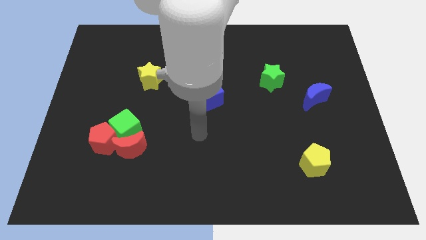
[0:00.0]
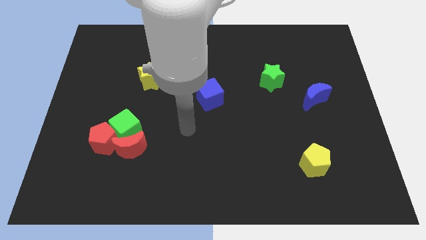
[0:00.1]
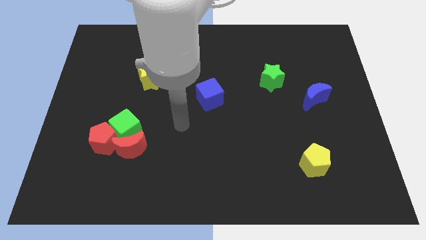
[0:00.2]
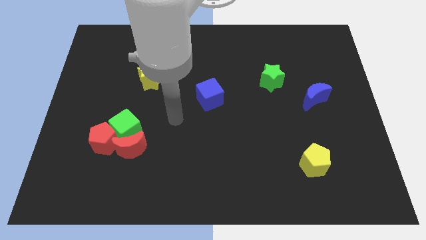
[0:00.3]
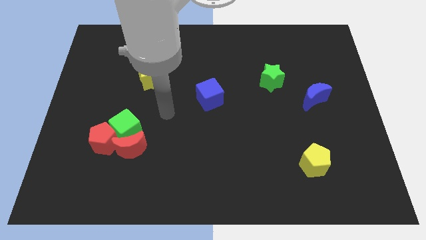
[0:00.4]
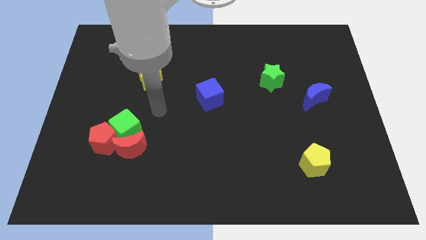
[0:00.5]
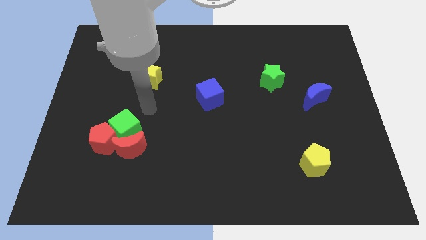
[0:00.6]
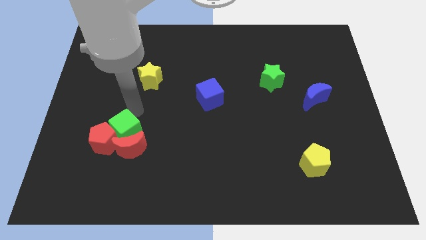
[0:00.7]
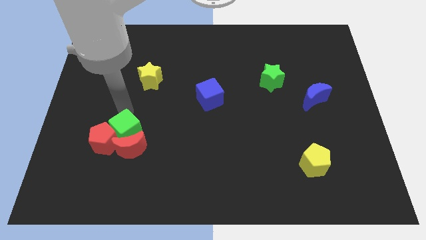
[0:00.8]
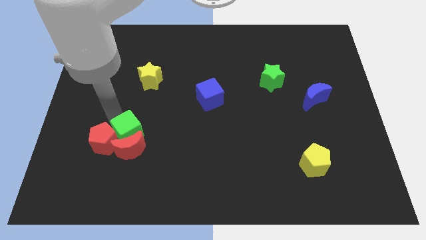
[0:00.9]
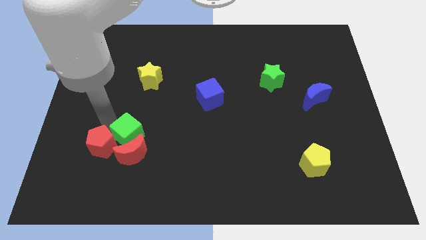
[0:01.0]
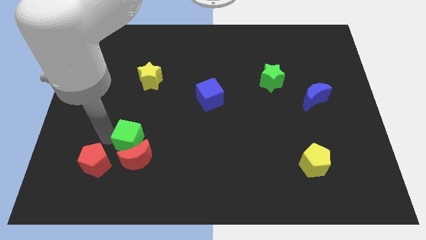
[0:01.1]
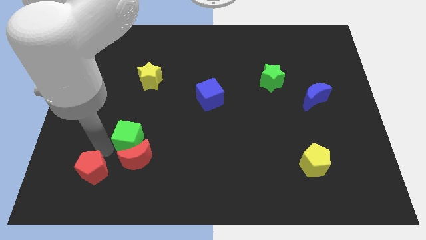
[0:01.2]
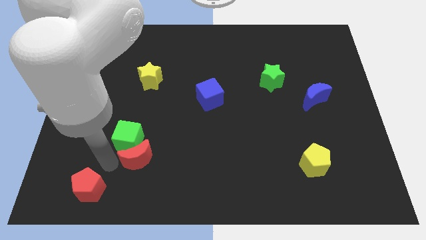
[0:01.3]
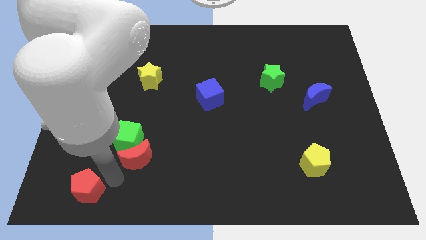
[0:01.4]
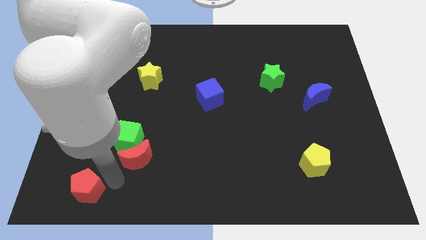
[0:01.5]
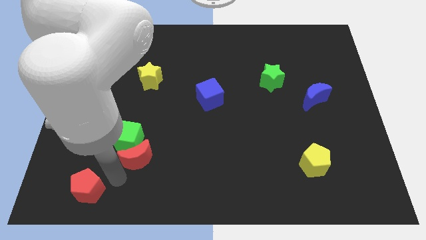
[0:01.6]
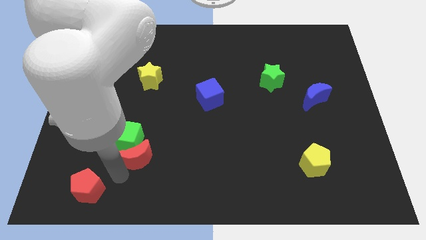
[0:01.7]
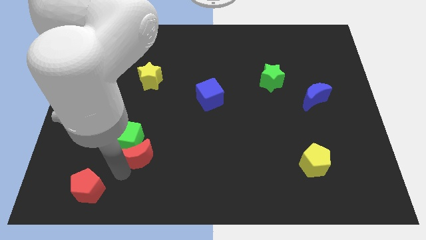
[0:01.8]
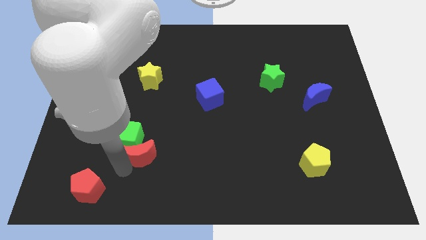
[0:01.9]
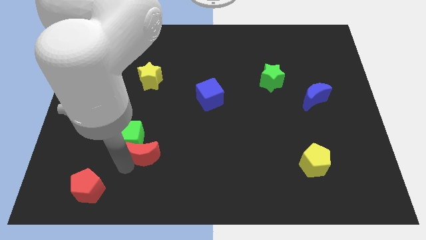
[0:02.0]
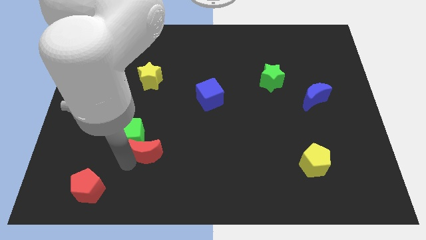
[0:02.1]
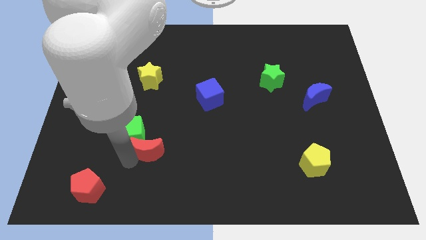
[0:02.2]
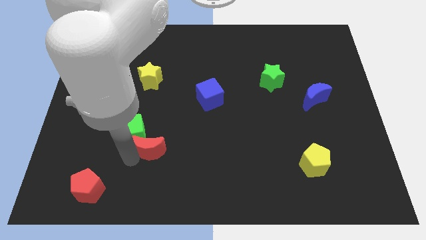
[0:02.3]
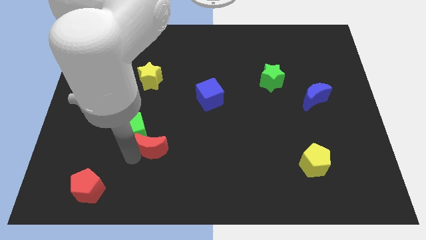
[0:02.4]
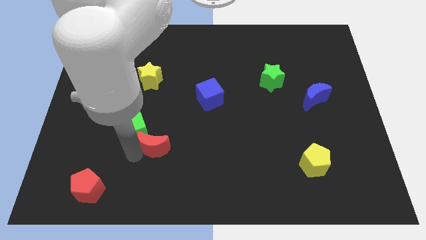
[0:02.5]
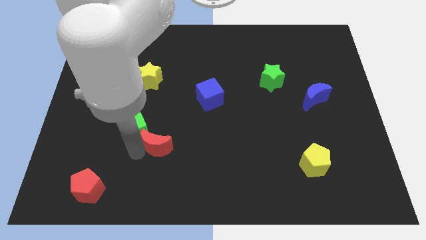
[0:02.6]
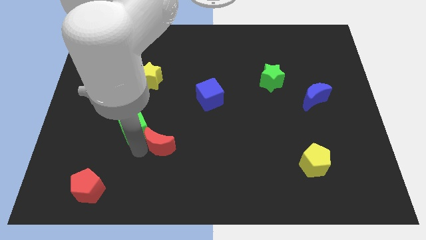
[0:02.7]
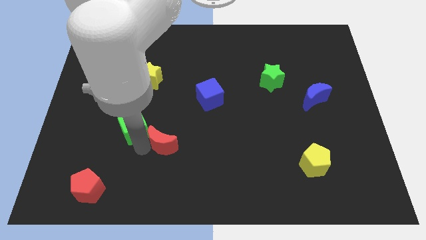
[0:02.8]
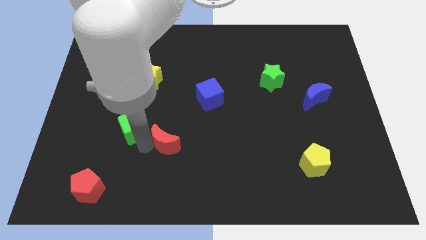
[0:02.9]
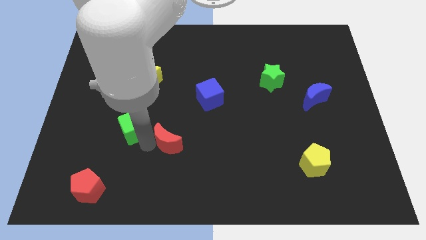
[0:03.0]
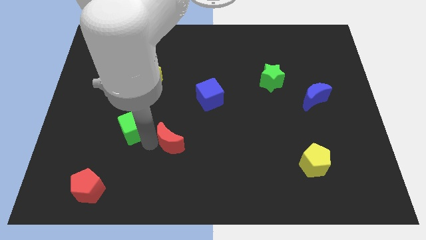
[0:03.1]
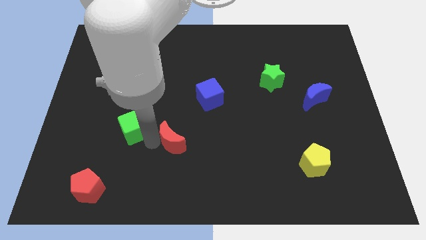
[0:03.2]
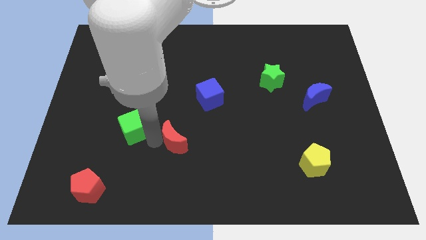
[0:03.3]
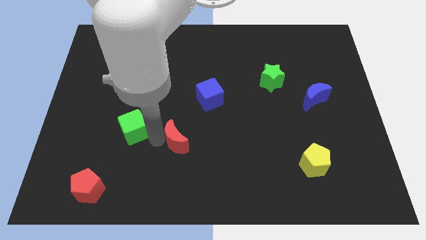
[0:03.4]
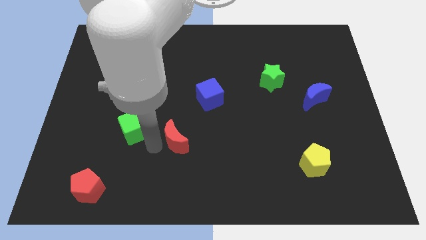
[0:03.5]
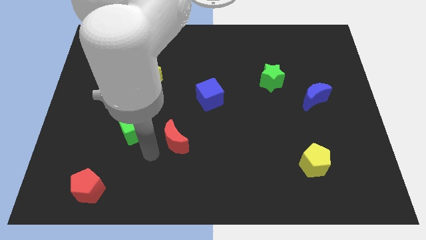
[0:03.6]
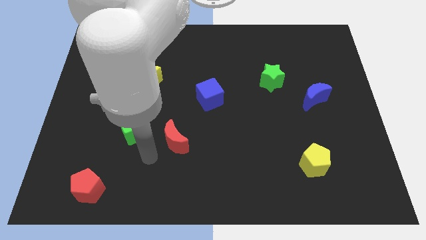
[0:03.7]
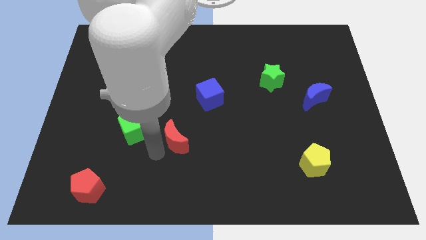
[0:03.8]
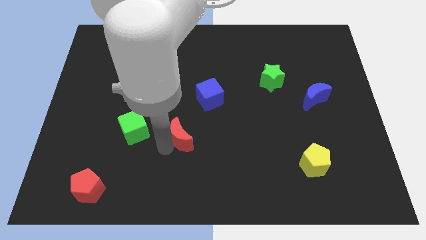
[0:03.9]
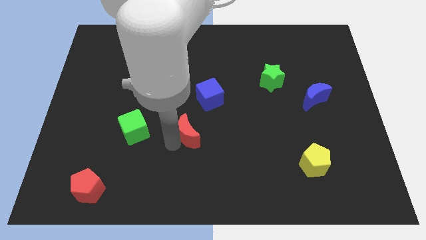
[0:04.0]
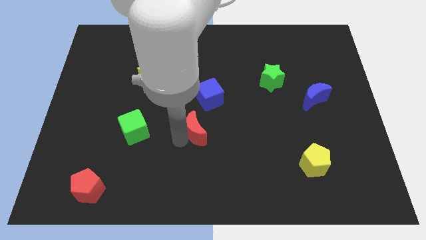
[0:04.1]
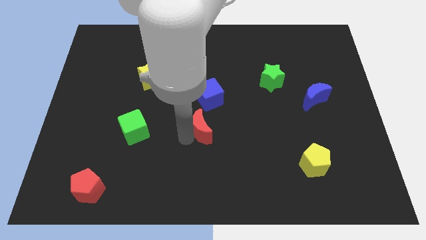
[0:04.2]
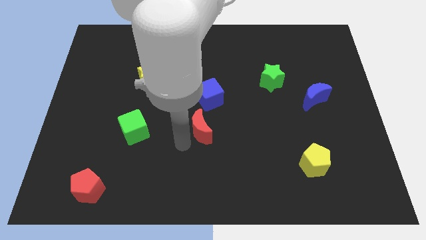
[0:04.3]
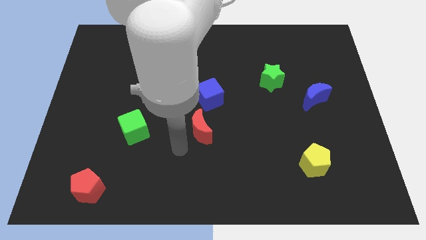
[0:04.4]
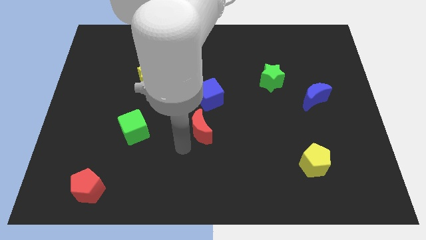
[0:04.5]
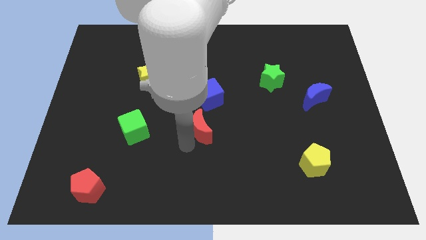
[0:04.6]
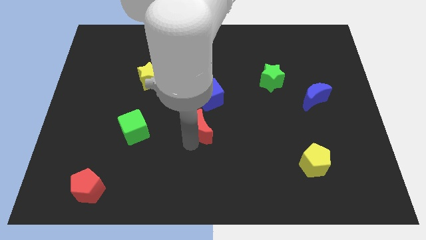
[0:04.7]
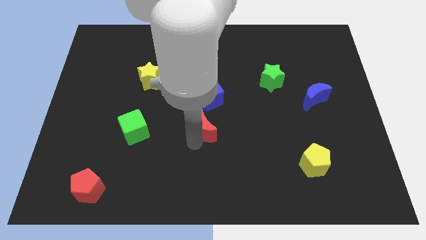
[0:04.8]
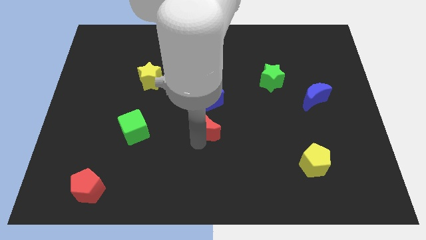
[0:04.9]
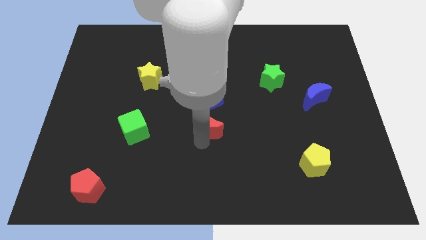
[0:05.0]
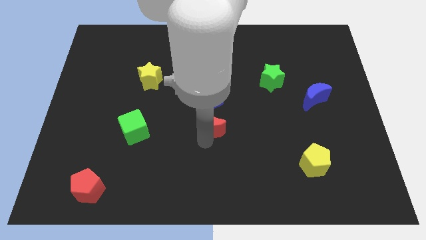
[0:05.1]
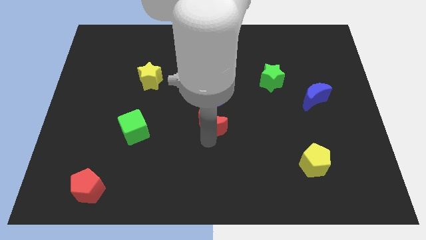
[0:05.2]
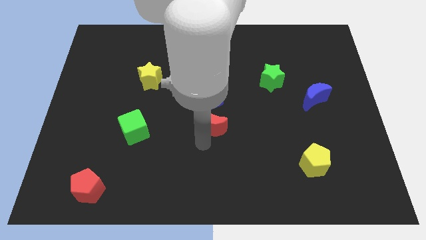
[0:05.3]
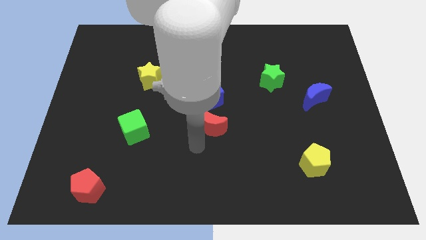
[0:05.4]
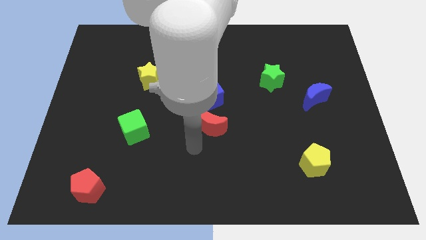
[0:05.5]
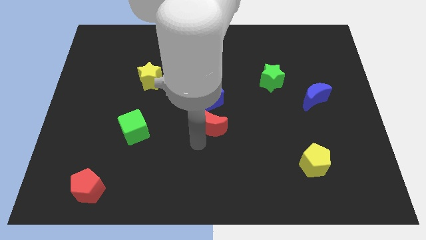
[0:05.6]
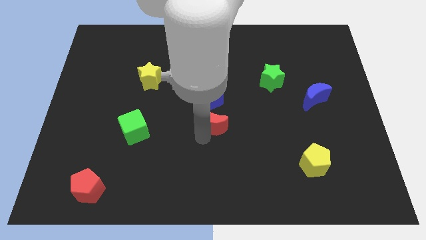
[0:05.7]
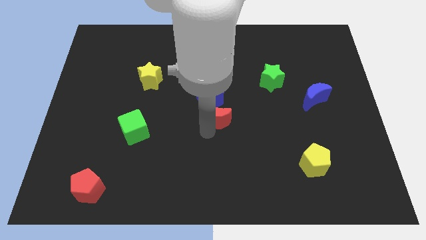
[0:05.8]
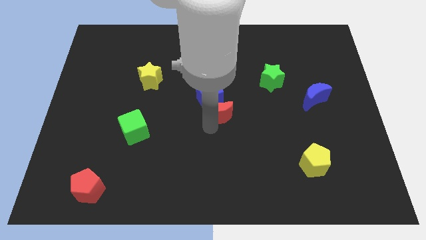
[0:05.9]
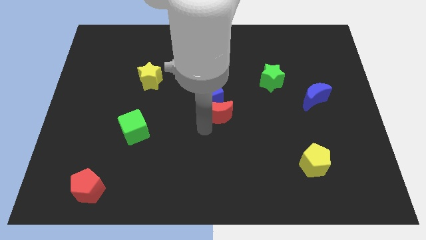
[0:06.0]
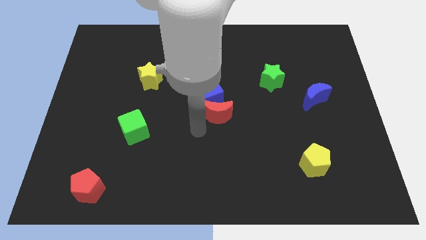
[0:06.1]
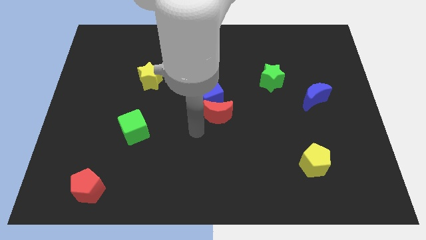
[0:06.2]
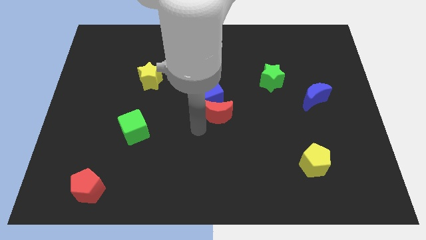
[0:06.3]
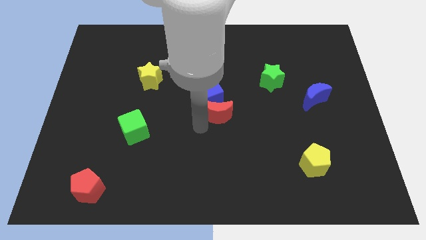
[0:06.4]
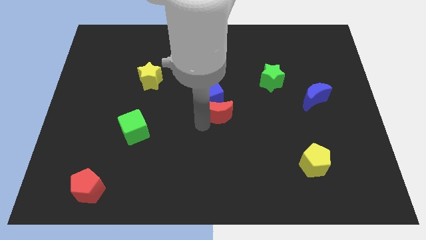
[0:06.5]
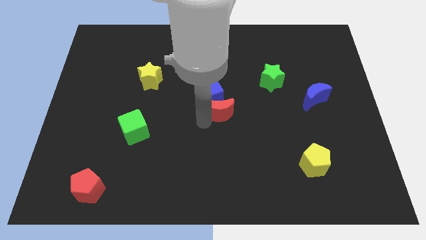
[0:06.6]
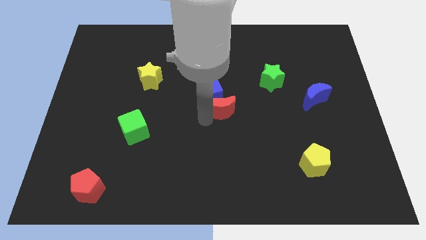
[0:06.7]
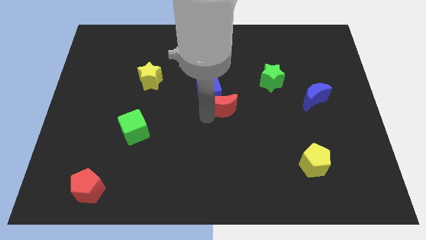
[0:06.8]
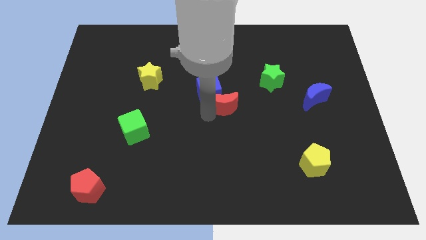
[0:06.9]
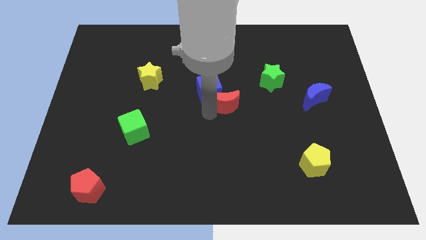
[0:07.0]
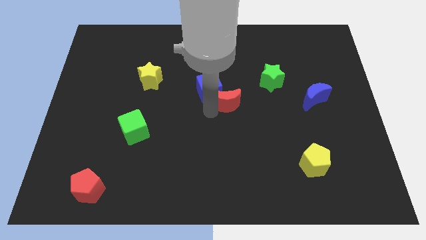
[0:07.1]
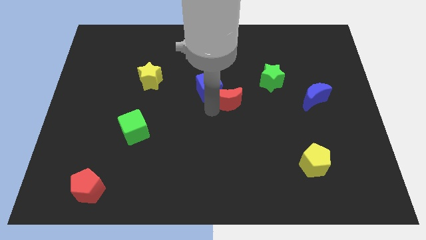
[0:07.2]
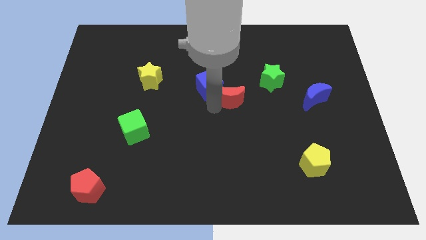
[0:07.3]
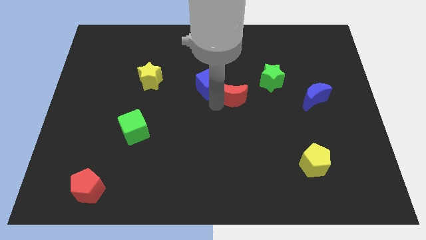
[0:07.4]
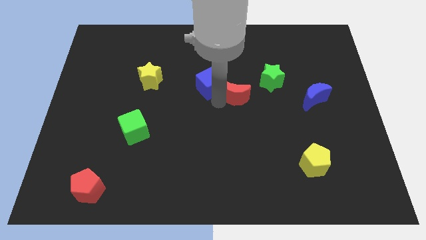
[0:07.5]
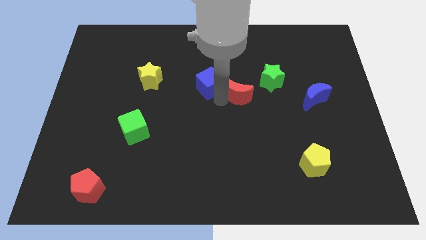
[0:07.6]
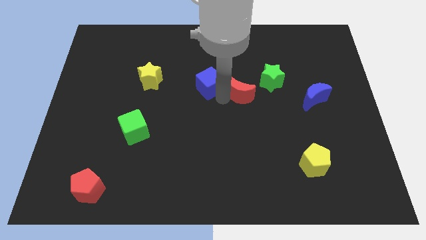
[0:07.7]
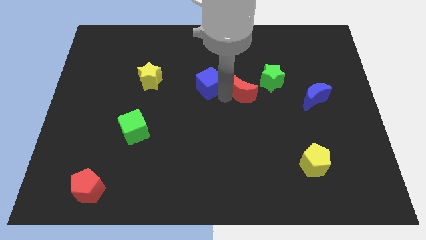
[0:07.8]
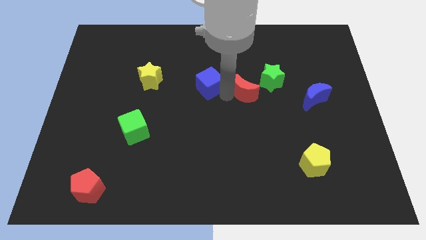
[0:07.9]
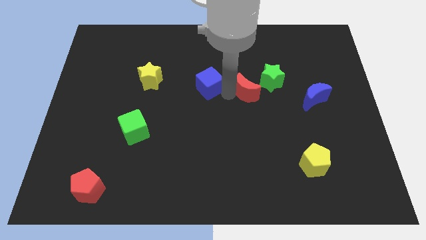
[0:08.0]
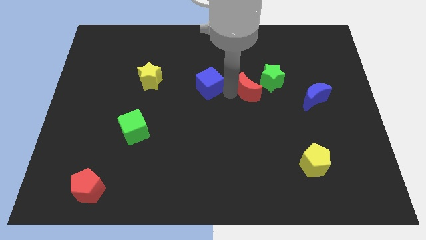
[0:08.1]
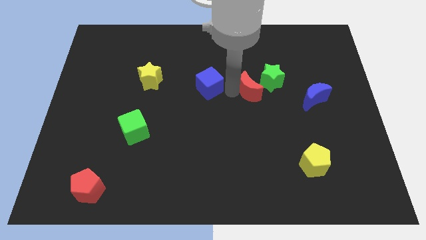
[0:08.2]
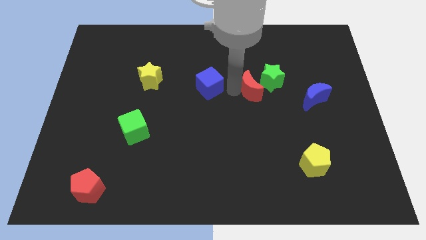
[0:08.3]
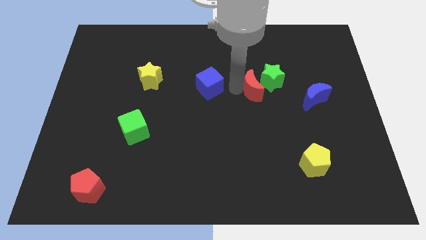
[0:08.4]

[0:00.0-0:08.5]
push the red moon towards the green star
